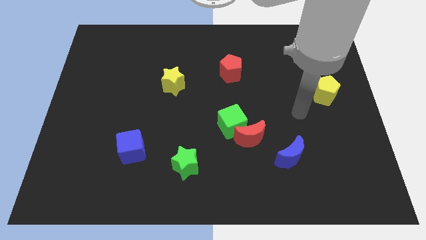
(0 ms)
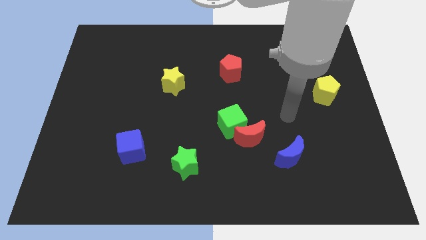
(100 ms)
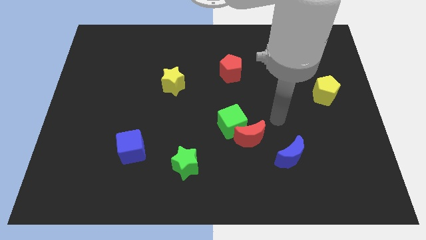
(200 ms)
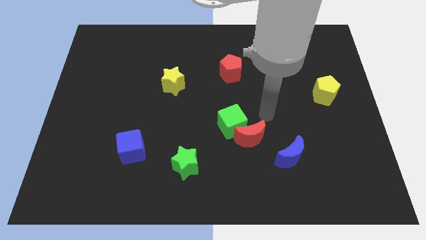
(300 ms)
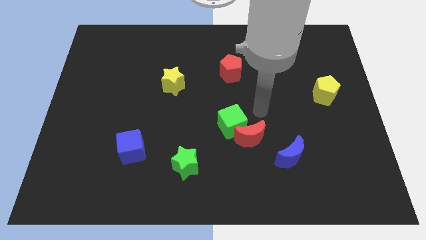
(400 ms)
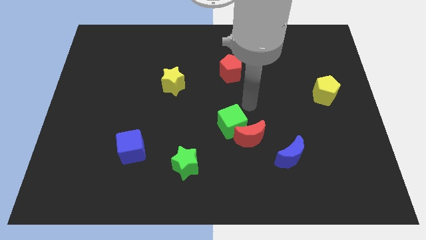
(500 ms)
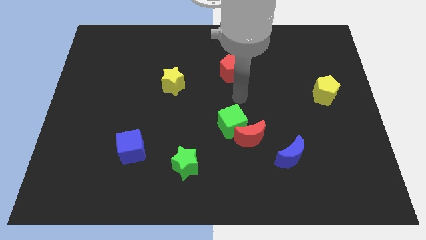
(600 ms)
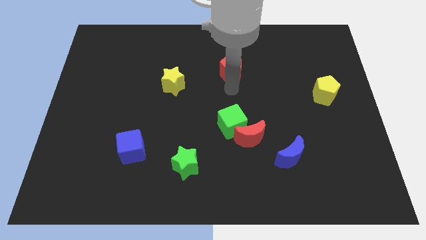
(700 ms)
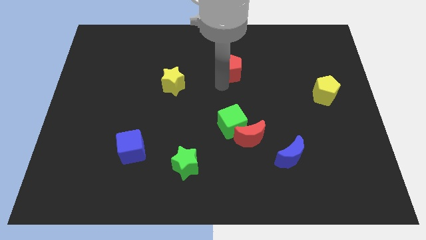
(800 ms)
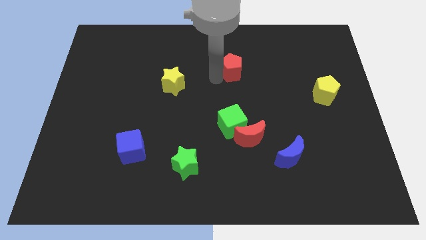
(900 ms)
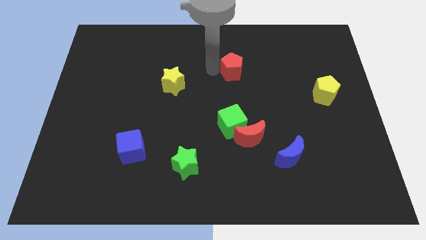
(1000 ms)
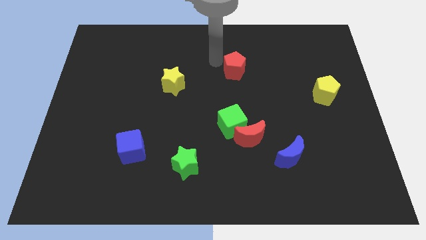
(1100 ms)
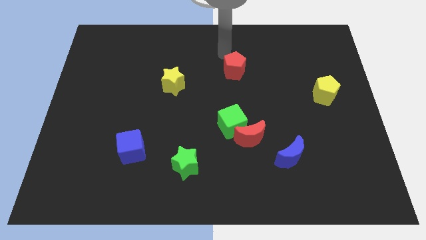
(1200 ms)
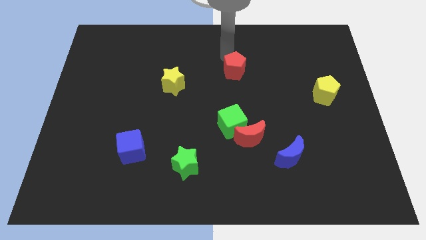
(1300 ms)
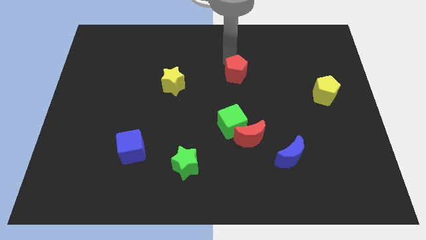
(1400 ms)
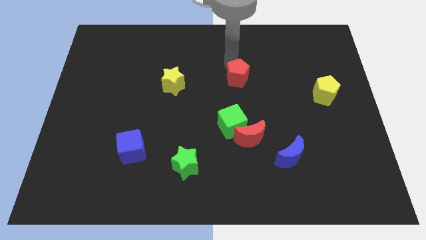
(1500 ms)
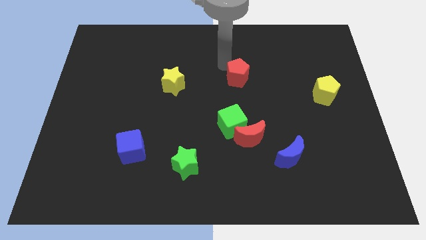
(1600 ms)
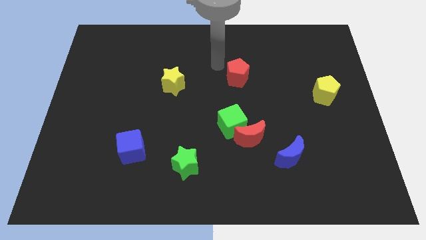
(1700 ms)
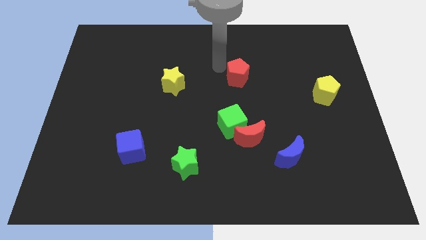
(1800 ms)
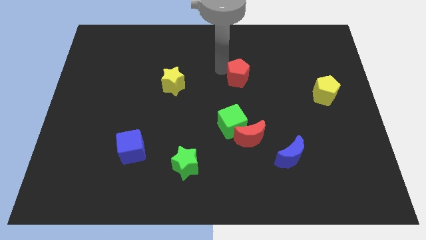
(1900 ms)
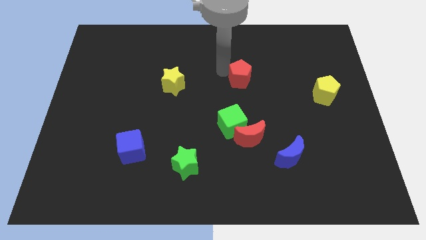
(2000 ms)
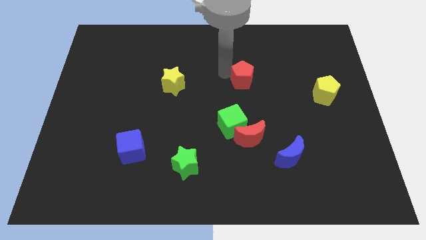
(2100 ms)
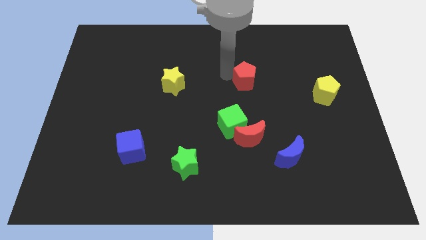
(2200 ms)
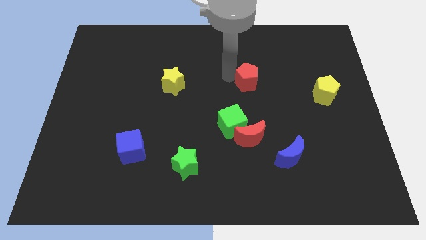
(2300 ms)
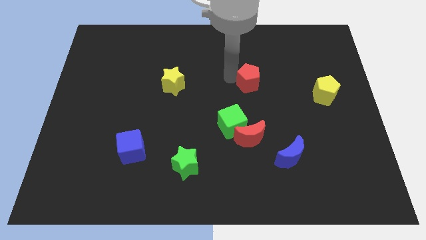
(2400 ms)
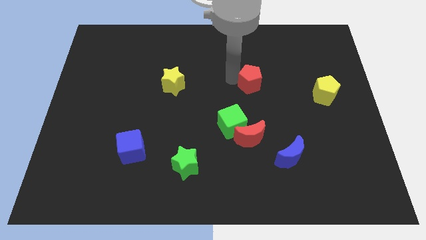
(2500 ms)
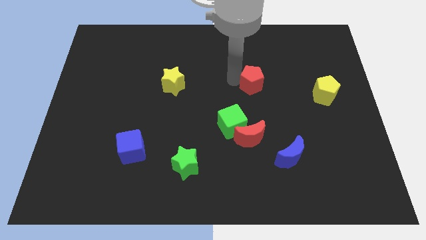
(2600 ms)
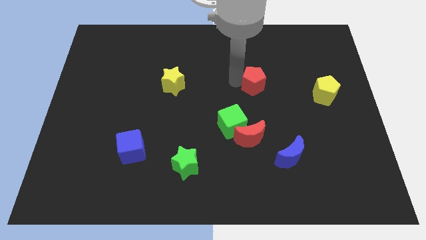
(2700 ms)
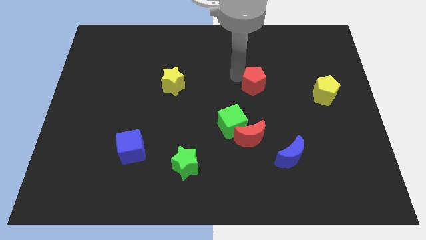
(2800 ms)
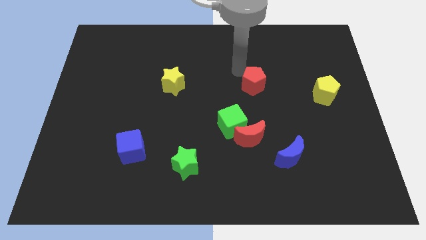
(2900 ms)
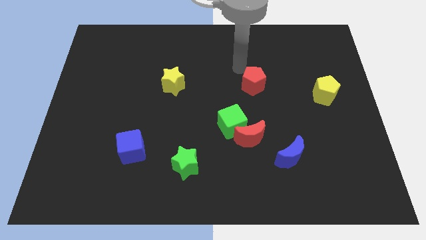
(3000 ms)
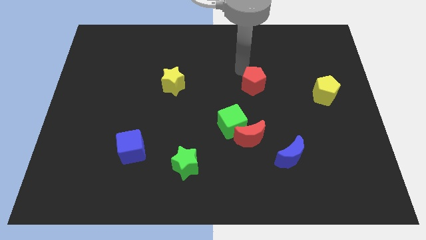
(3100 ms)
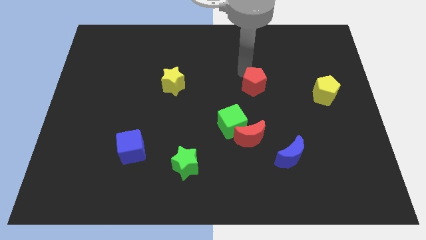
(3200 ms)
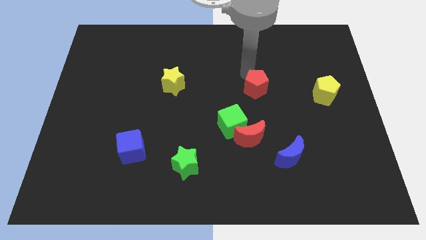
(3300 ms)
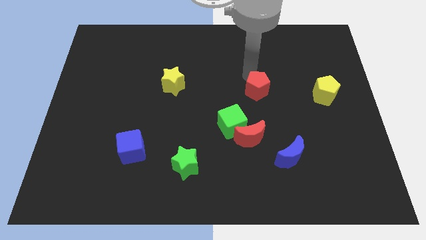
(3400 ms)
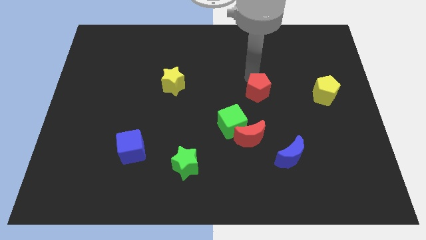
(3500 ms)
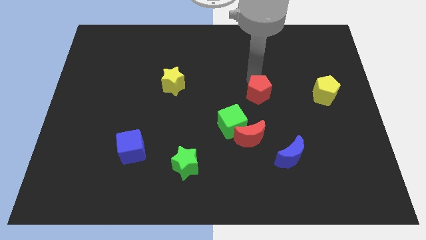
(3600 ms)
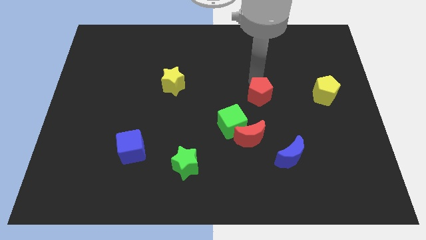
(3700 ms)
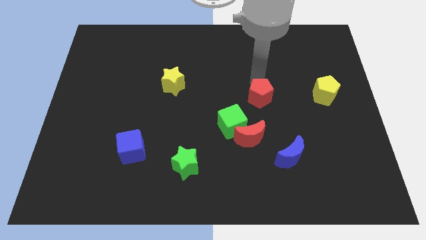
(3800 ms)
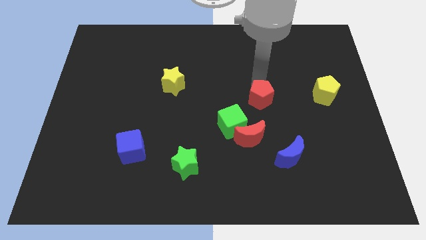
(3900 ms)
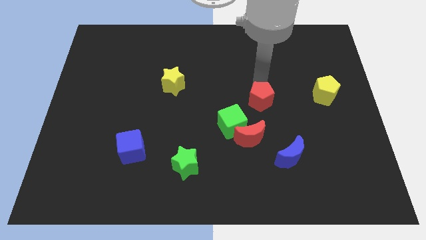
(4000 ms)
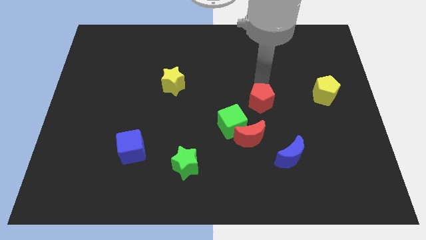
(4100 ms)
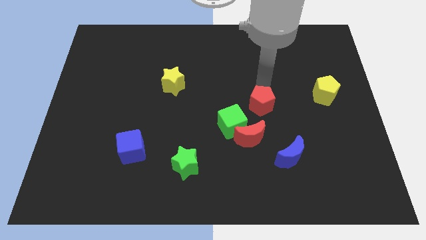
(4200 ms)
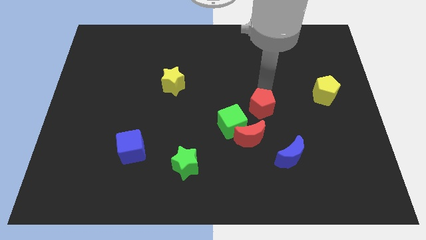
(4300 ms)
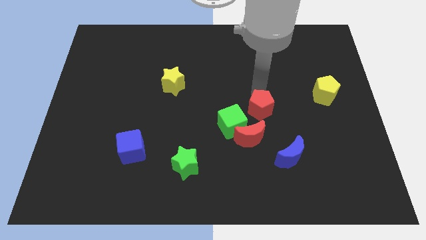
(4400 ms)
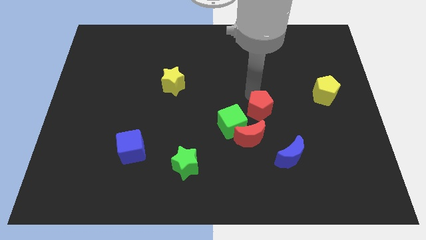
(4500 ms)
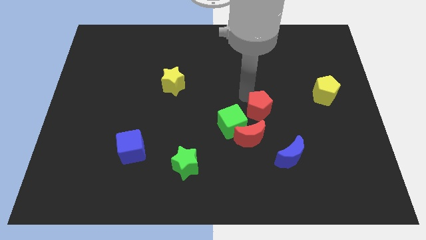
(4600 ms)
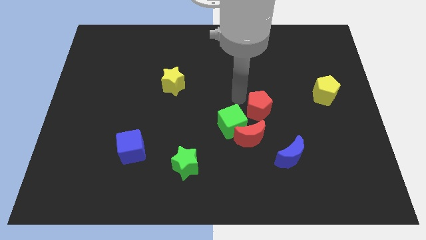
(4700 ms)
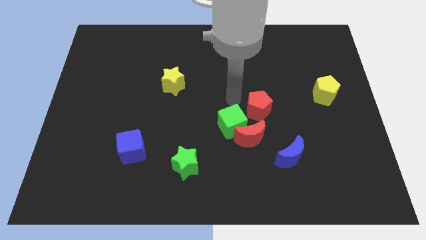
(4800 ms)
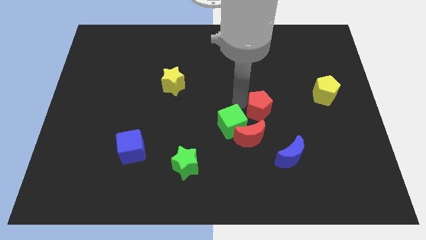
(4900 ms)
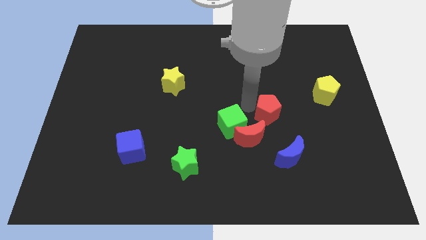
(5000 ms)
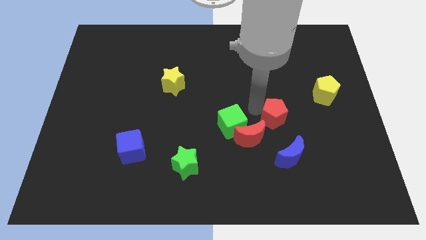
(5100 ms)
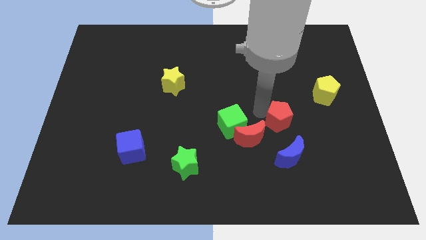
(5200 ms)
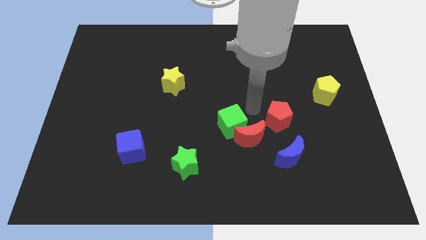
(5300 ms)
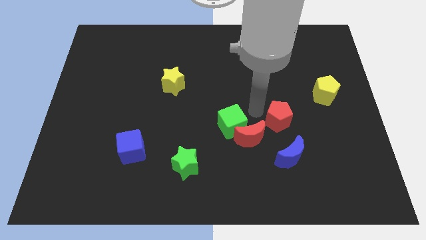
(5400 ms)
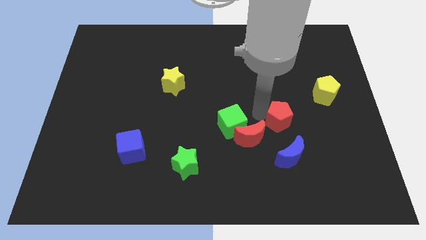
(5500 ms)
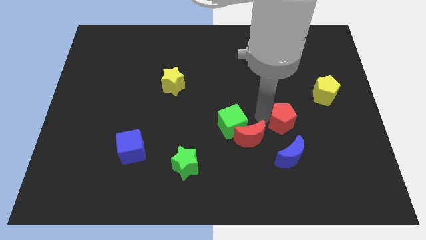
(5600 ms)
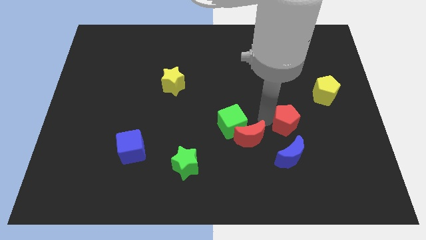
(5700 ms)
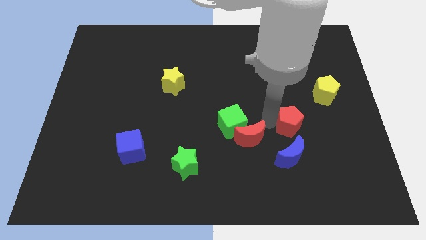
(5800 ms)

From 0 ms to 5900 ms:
push the red pentagon down and then right

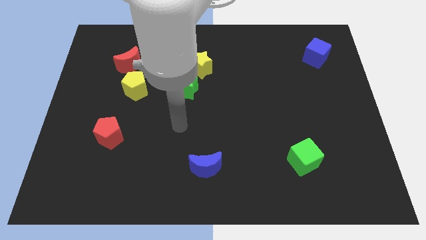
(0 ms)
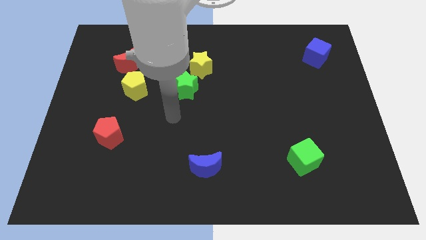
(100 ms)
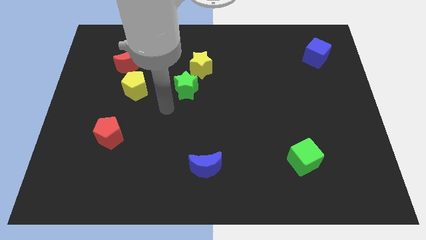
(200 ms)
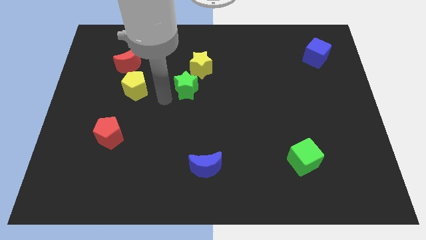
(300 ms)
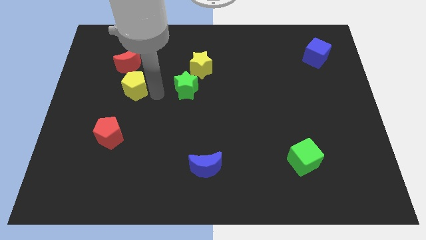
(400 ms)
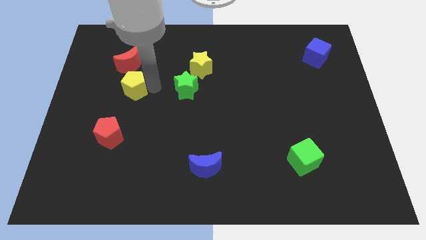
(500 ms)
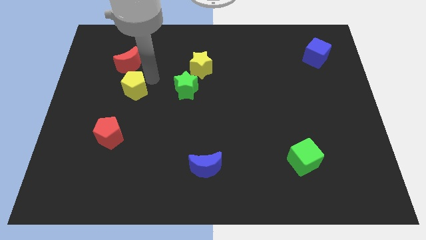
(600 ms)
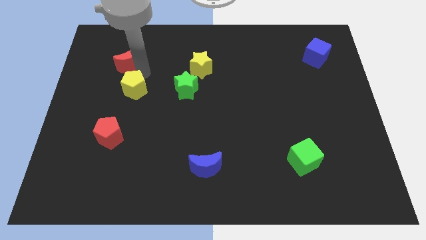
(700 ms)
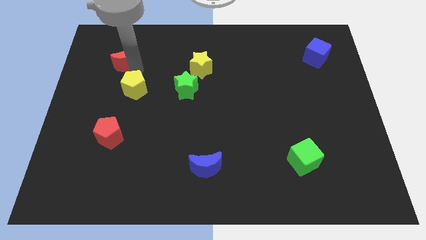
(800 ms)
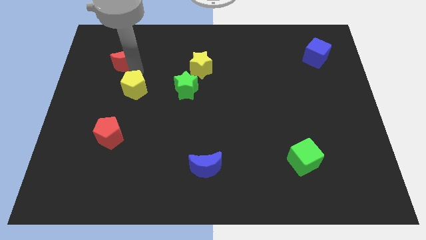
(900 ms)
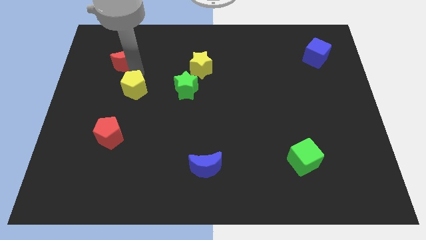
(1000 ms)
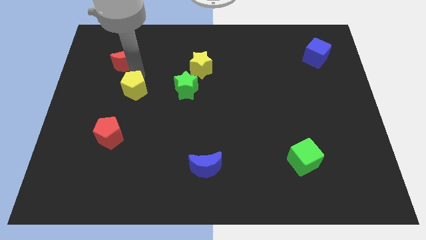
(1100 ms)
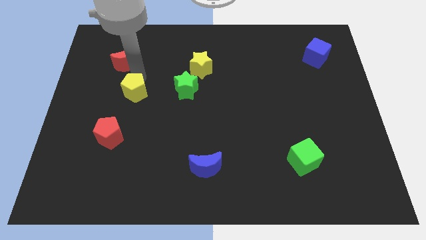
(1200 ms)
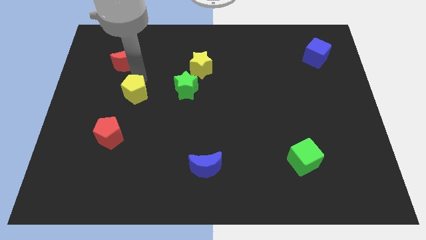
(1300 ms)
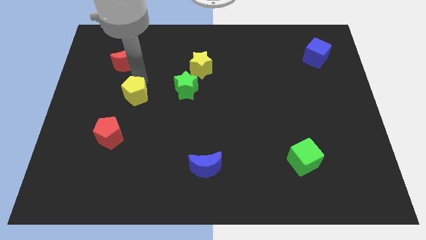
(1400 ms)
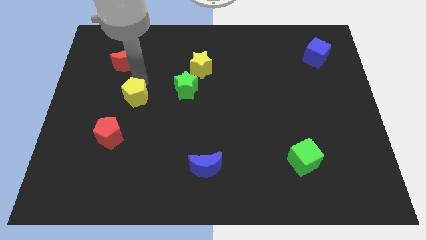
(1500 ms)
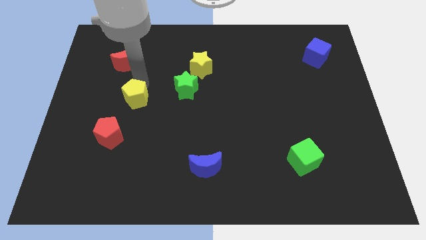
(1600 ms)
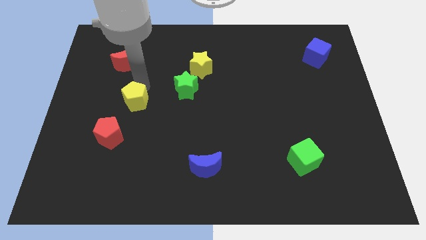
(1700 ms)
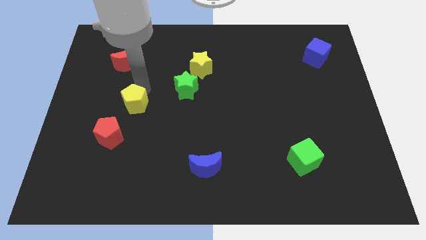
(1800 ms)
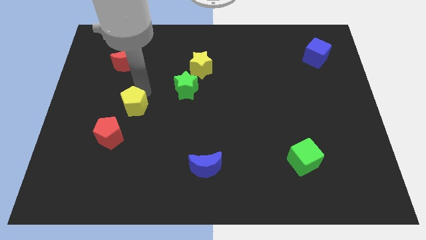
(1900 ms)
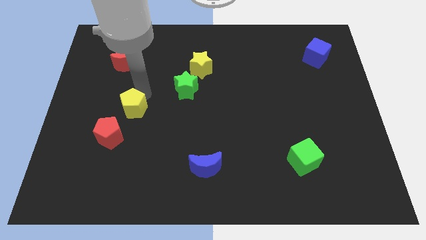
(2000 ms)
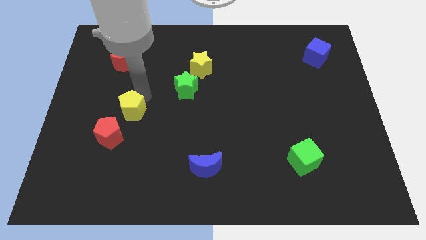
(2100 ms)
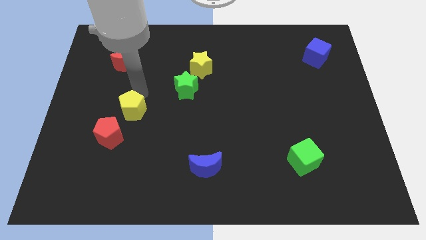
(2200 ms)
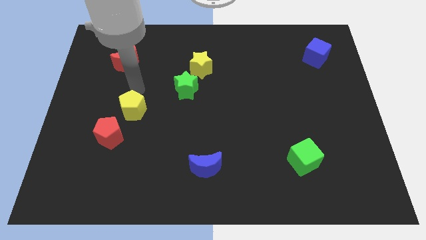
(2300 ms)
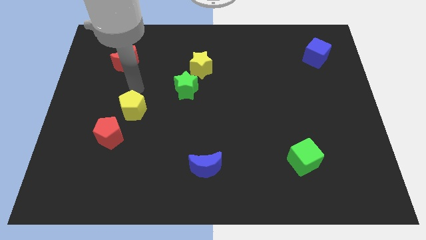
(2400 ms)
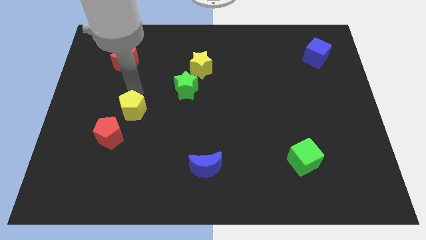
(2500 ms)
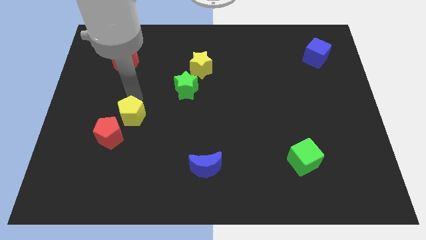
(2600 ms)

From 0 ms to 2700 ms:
push the yellow pentagon slightly downwards
